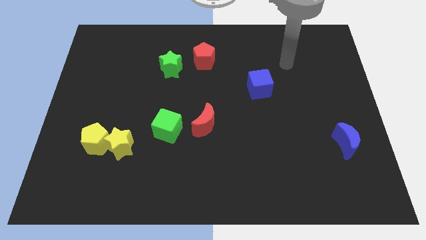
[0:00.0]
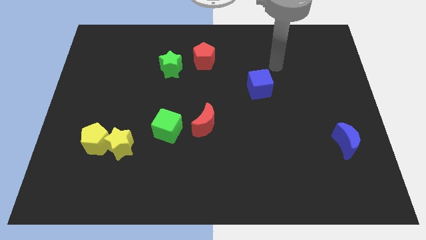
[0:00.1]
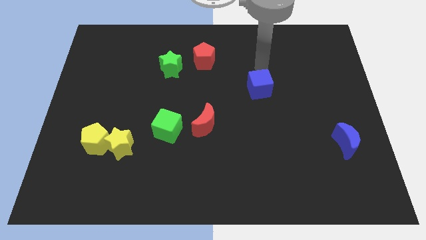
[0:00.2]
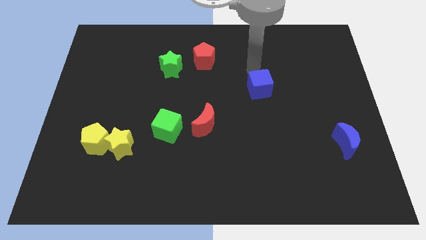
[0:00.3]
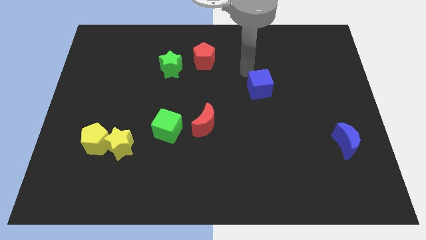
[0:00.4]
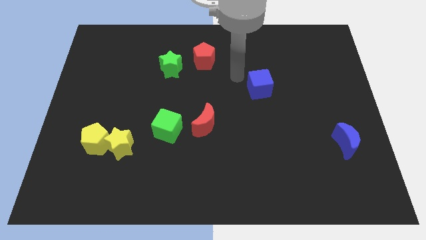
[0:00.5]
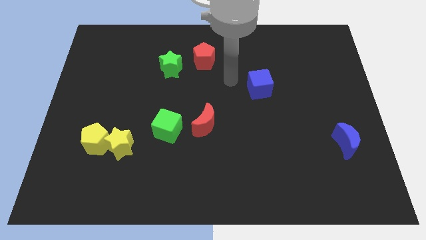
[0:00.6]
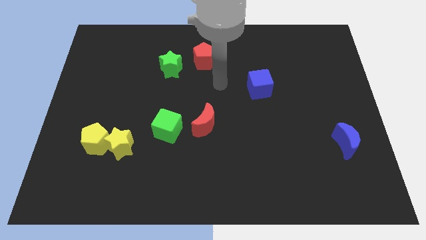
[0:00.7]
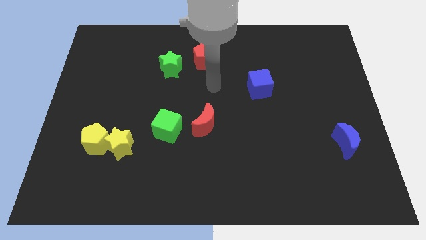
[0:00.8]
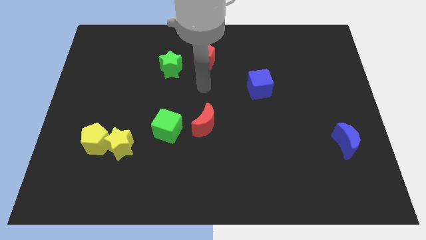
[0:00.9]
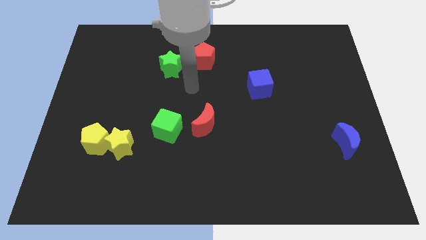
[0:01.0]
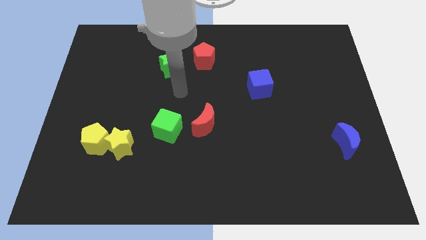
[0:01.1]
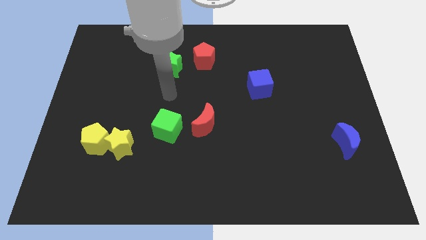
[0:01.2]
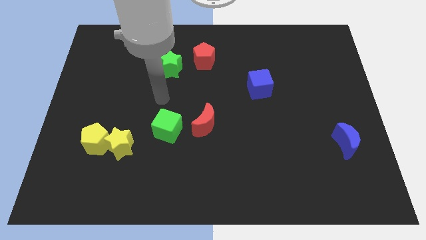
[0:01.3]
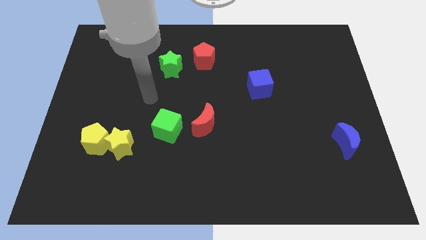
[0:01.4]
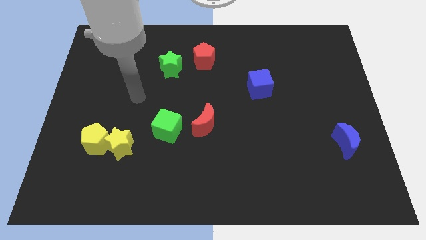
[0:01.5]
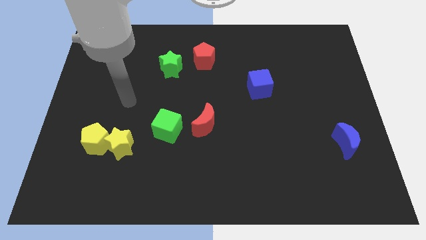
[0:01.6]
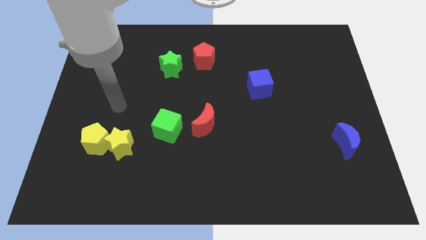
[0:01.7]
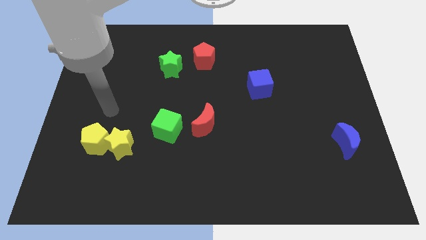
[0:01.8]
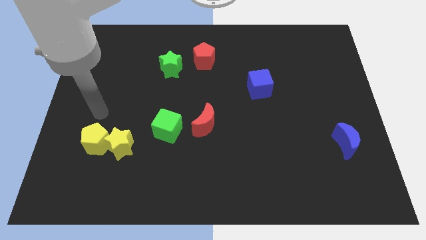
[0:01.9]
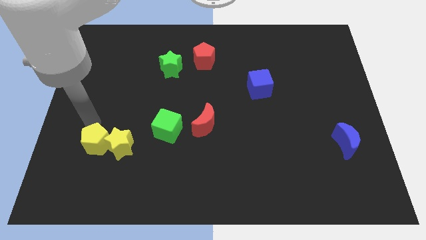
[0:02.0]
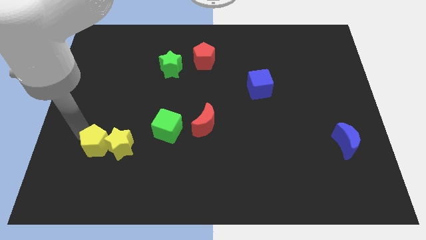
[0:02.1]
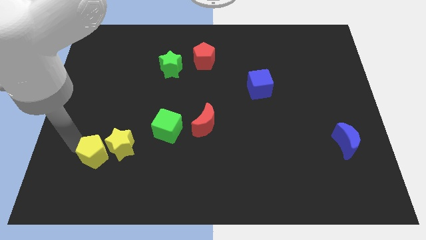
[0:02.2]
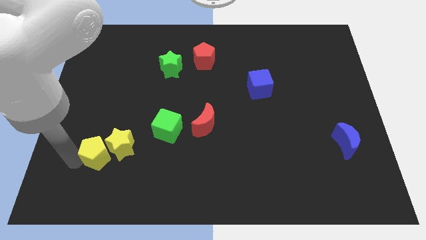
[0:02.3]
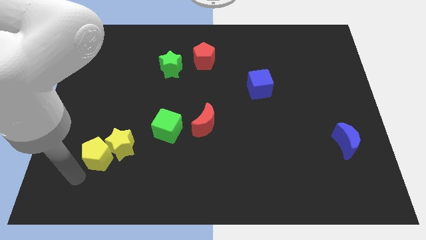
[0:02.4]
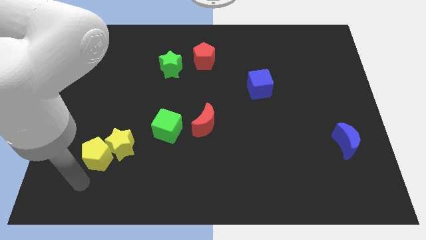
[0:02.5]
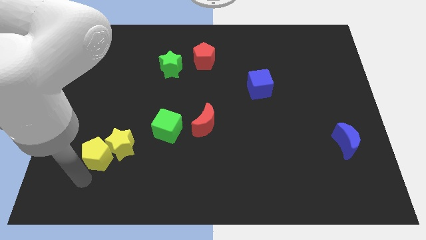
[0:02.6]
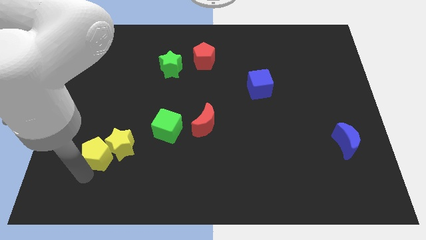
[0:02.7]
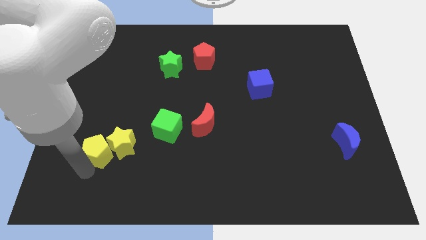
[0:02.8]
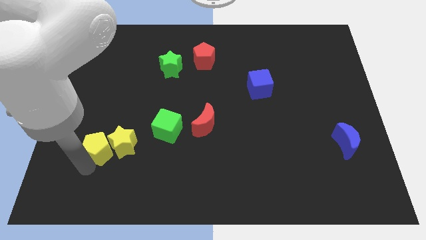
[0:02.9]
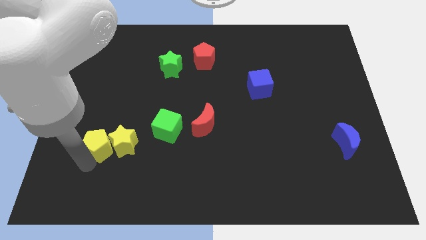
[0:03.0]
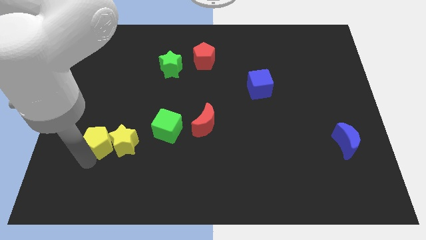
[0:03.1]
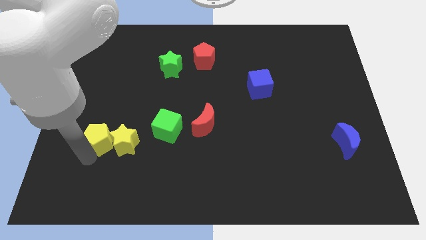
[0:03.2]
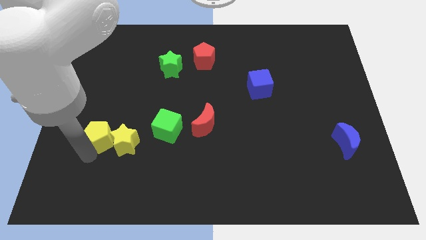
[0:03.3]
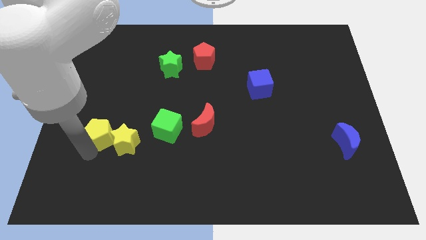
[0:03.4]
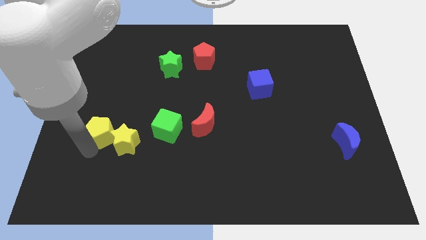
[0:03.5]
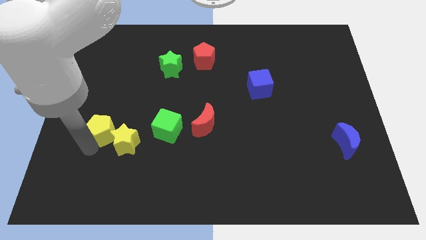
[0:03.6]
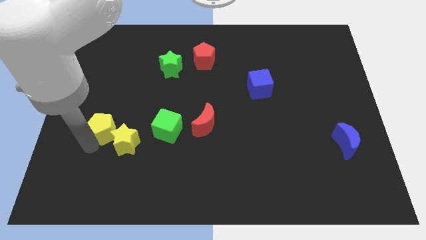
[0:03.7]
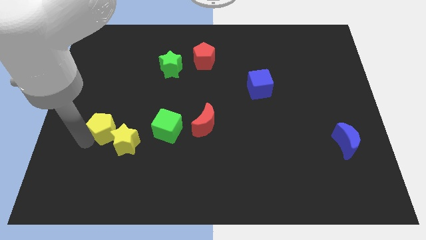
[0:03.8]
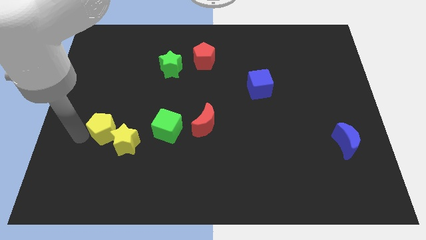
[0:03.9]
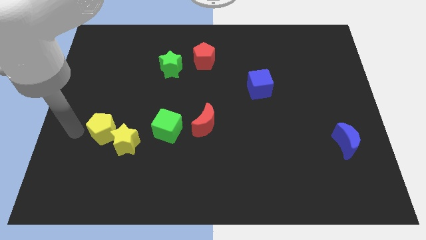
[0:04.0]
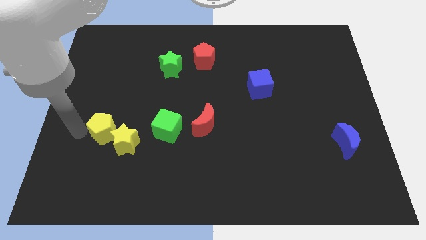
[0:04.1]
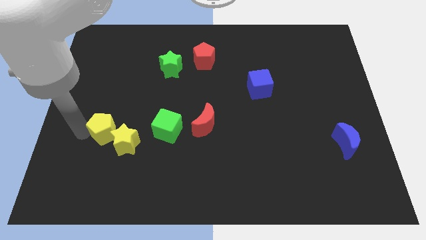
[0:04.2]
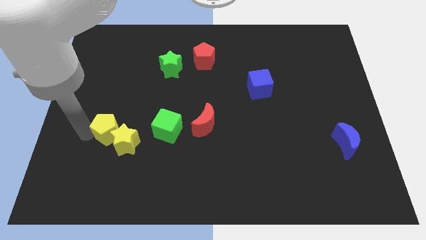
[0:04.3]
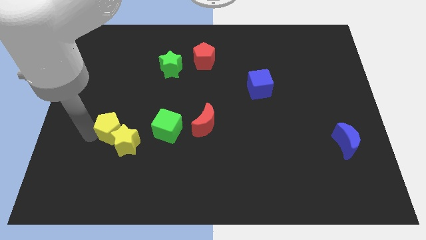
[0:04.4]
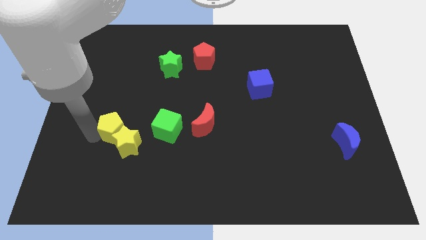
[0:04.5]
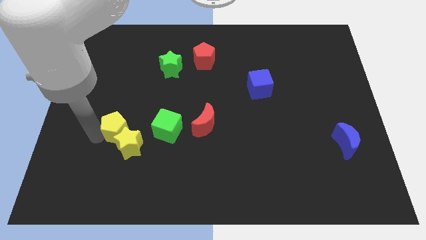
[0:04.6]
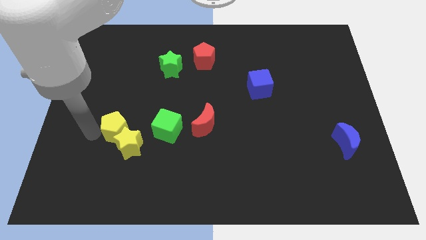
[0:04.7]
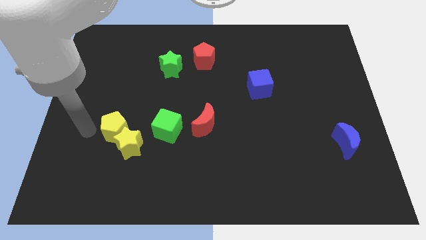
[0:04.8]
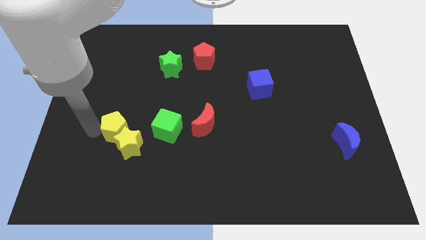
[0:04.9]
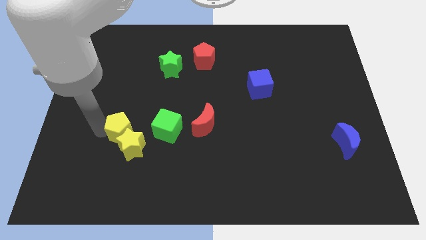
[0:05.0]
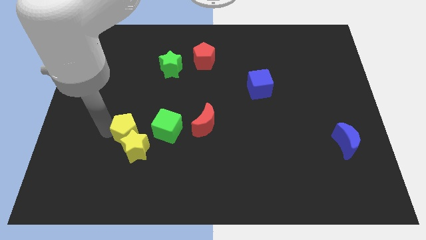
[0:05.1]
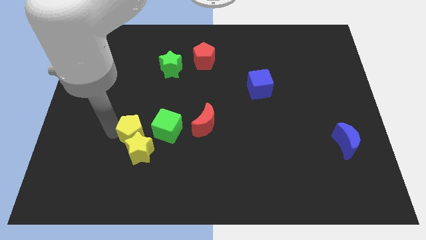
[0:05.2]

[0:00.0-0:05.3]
slightly move the yellow pentagon right

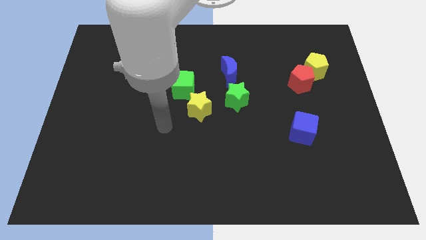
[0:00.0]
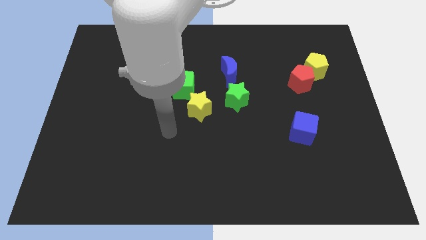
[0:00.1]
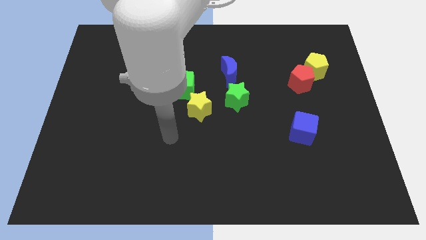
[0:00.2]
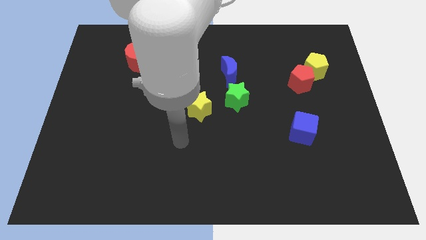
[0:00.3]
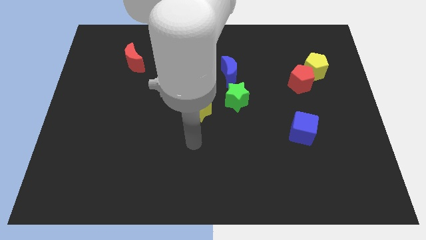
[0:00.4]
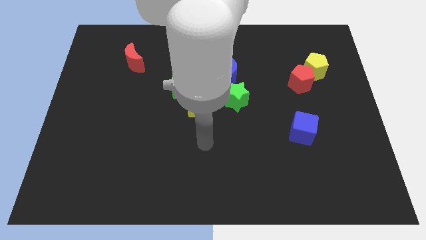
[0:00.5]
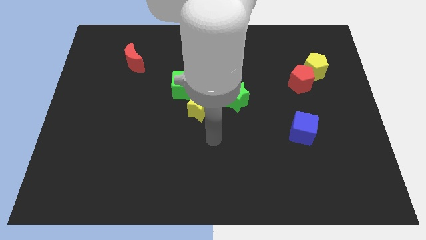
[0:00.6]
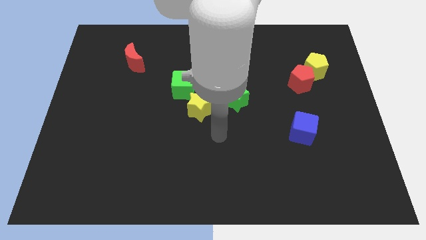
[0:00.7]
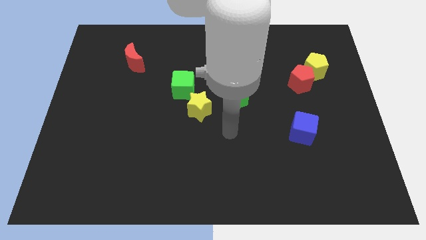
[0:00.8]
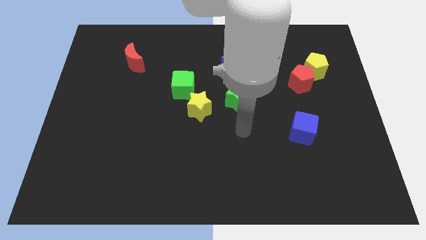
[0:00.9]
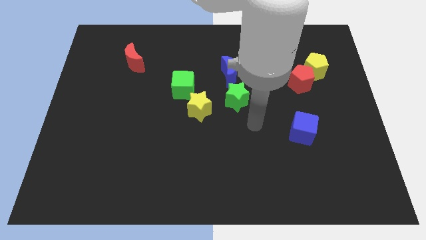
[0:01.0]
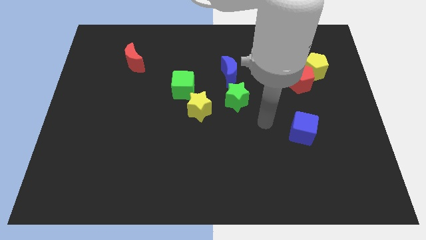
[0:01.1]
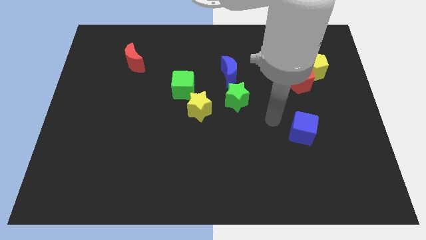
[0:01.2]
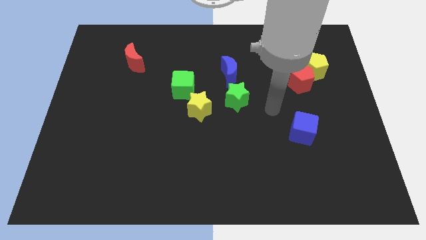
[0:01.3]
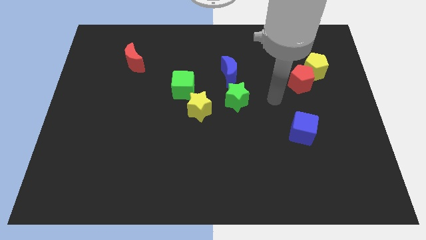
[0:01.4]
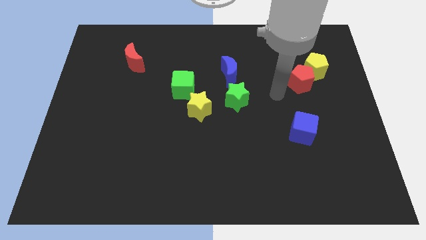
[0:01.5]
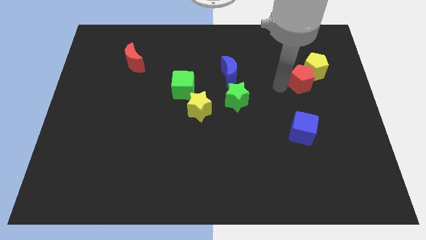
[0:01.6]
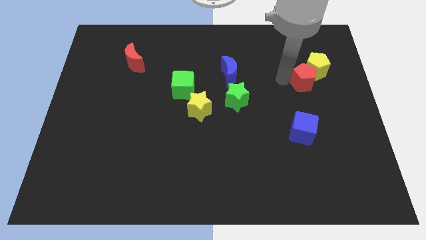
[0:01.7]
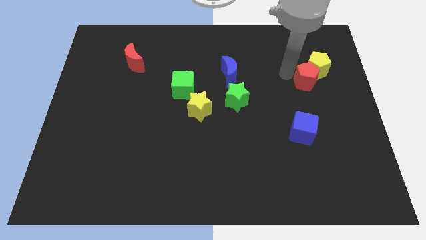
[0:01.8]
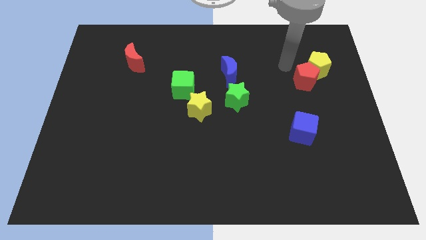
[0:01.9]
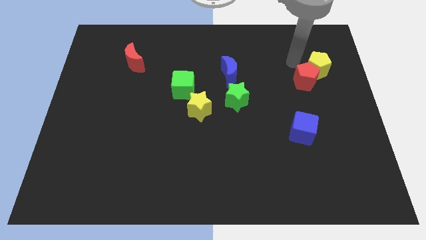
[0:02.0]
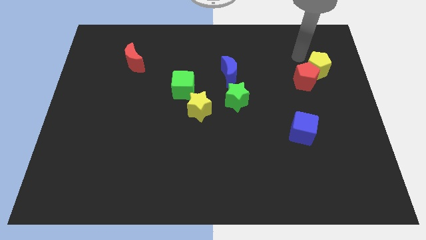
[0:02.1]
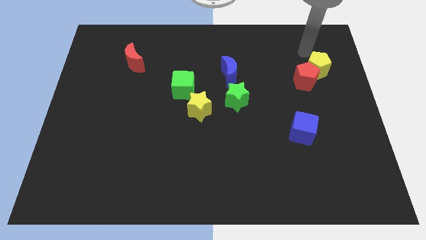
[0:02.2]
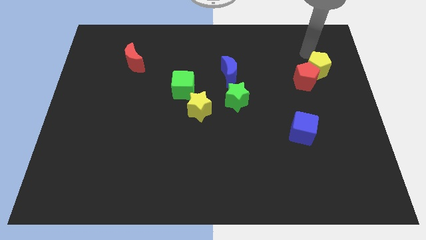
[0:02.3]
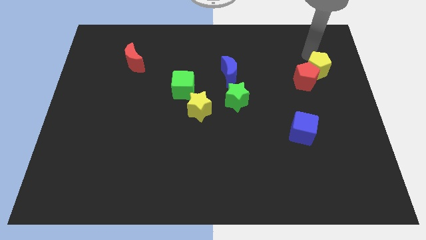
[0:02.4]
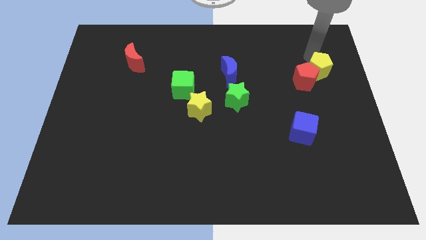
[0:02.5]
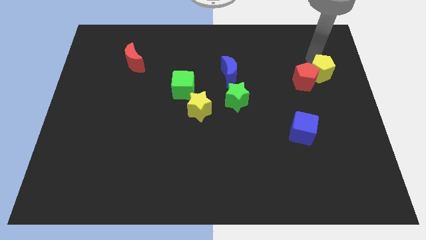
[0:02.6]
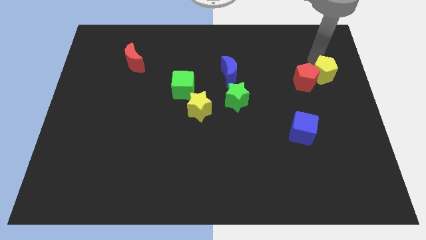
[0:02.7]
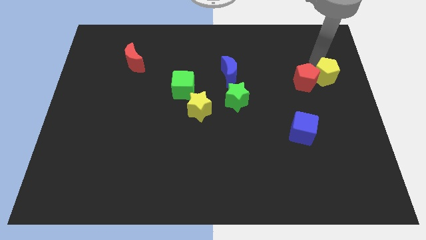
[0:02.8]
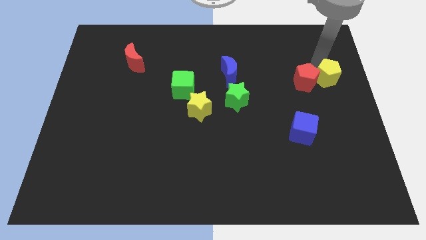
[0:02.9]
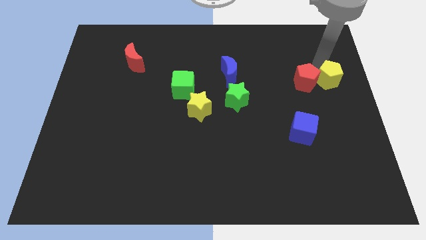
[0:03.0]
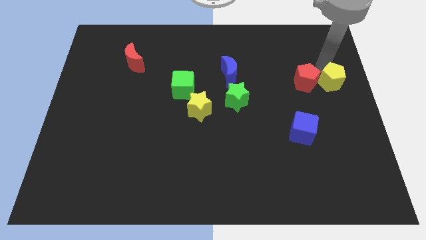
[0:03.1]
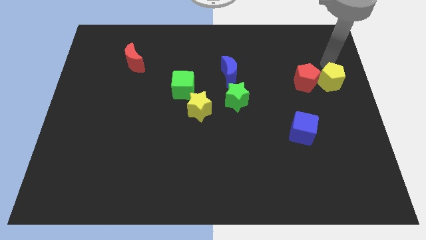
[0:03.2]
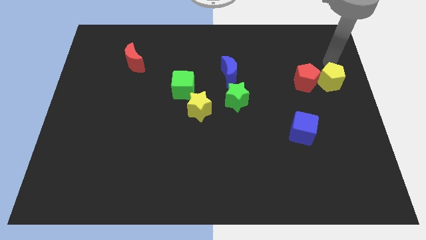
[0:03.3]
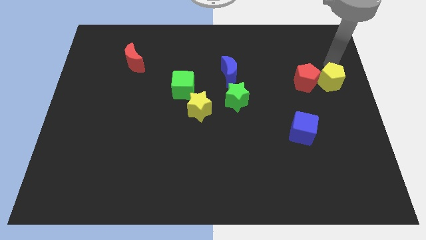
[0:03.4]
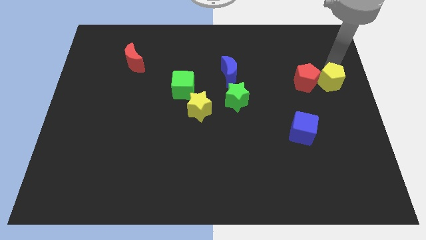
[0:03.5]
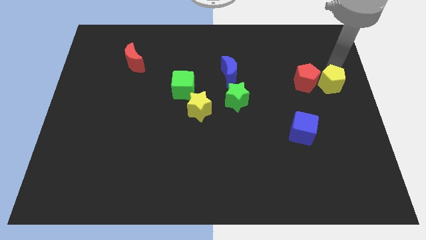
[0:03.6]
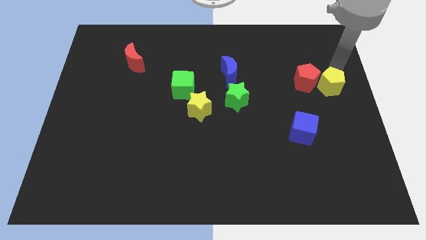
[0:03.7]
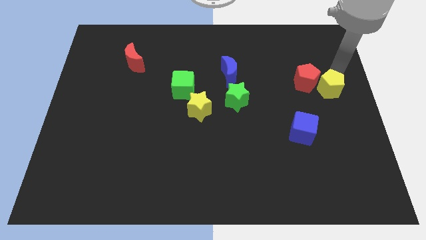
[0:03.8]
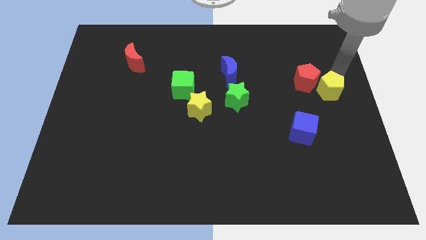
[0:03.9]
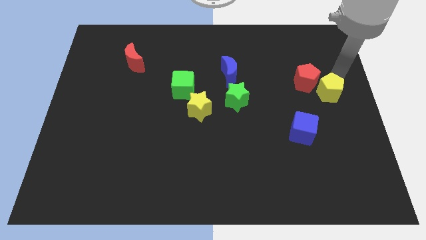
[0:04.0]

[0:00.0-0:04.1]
slightly push the yellow pentagon downwards
